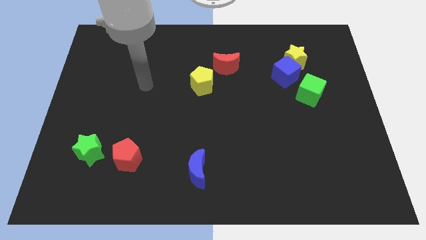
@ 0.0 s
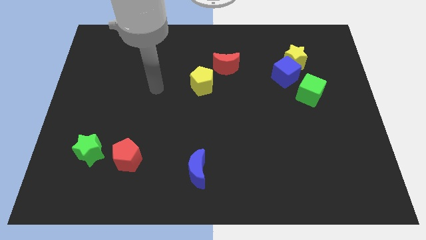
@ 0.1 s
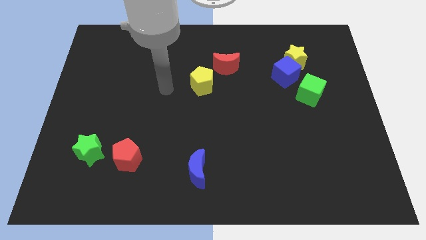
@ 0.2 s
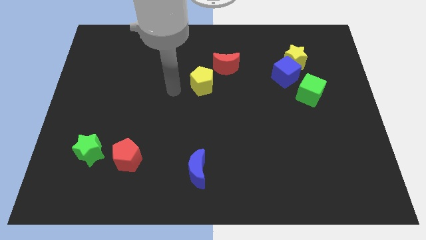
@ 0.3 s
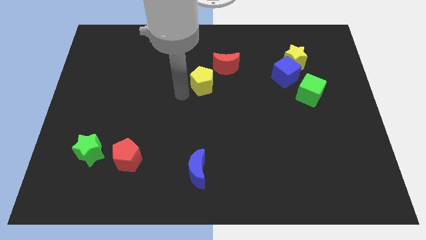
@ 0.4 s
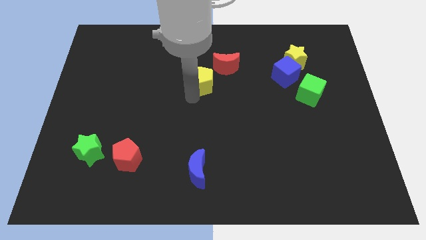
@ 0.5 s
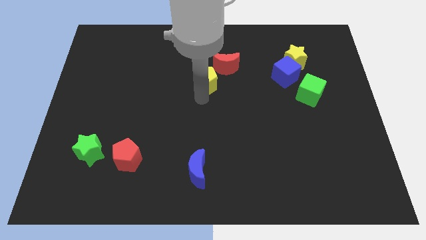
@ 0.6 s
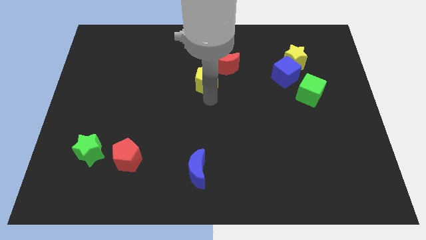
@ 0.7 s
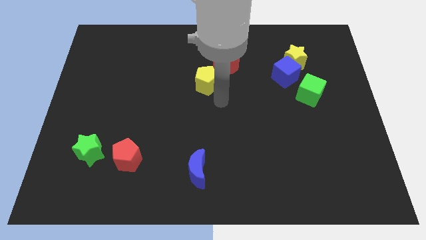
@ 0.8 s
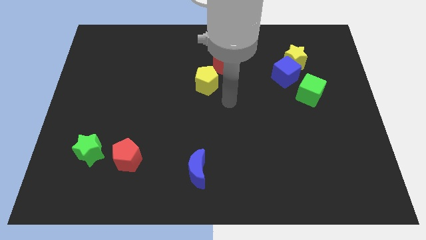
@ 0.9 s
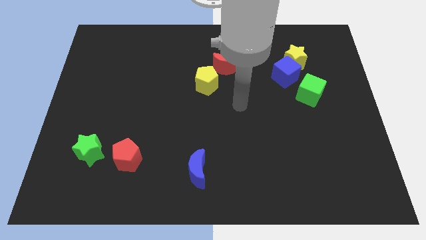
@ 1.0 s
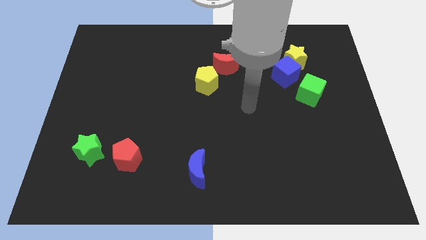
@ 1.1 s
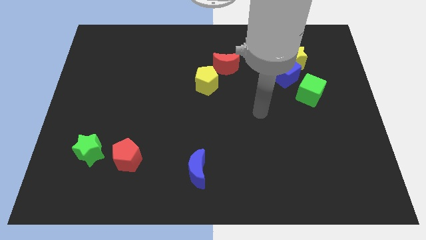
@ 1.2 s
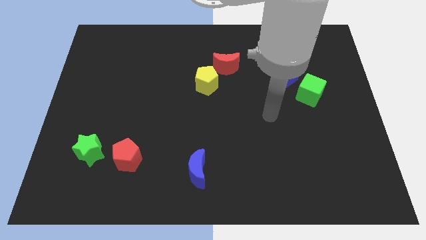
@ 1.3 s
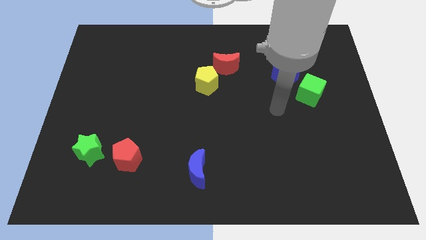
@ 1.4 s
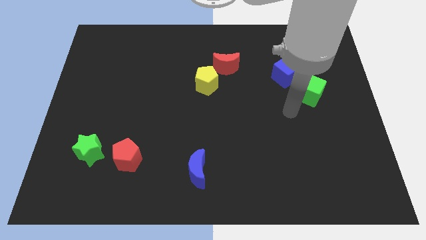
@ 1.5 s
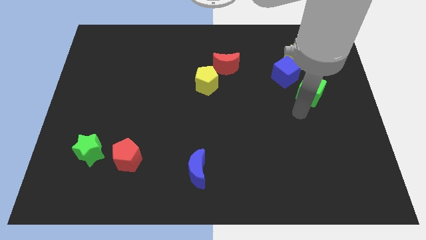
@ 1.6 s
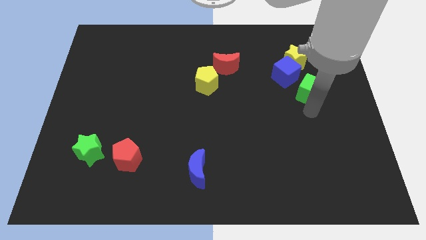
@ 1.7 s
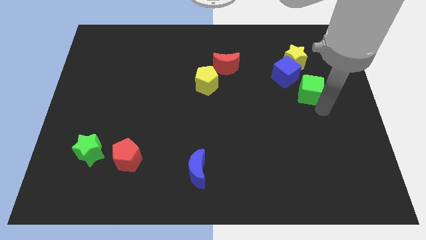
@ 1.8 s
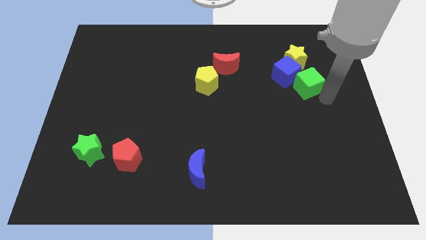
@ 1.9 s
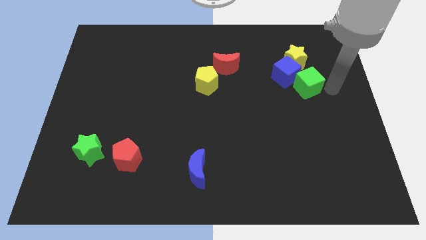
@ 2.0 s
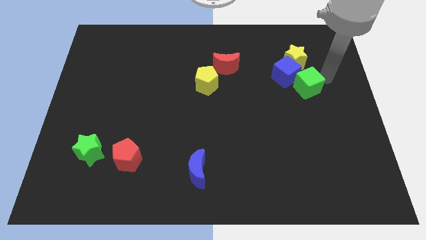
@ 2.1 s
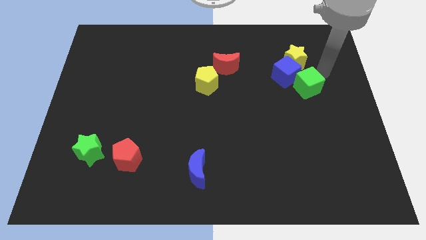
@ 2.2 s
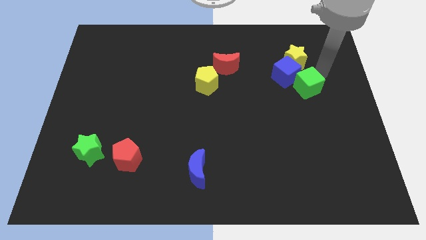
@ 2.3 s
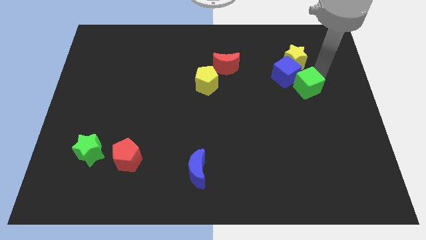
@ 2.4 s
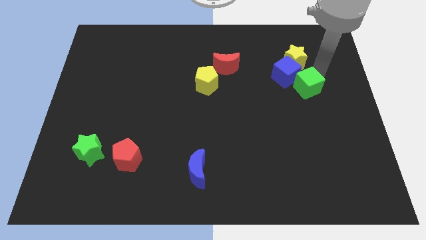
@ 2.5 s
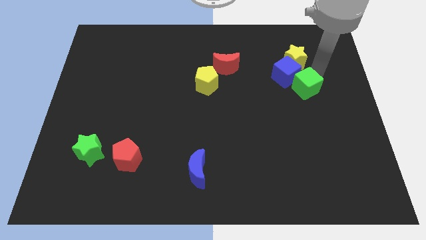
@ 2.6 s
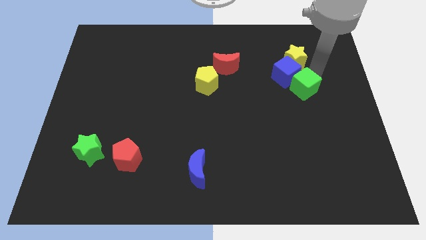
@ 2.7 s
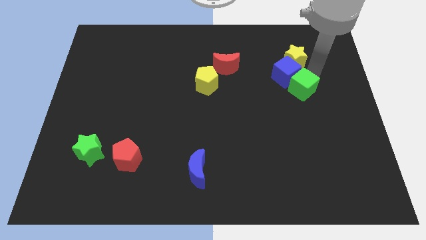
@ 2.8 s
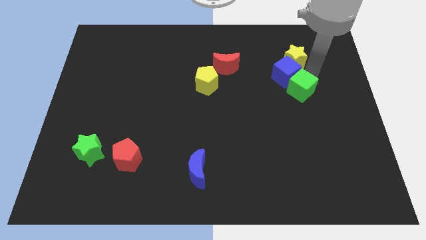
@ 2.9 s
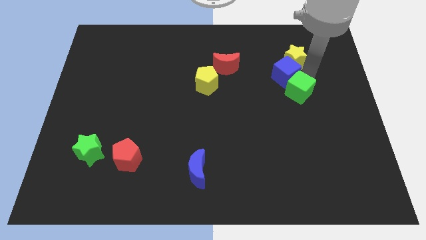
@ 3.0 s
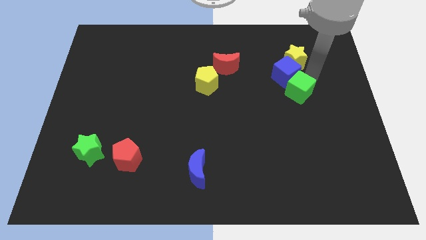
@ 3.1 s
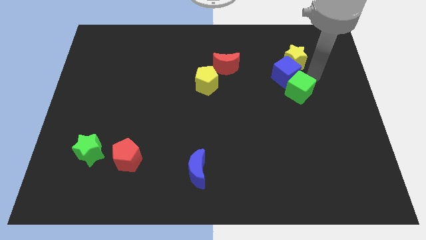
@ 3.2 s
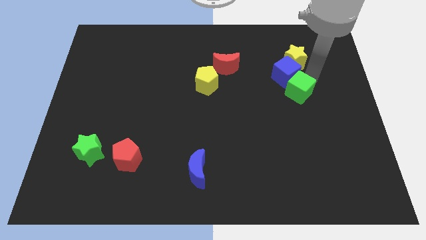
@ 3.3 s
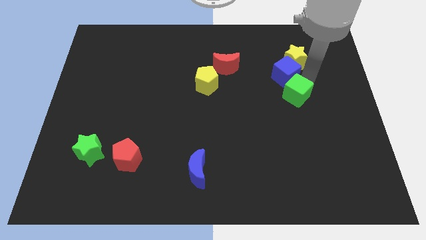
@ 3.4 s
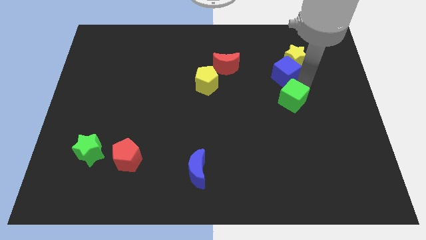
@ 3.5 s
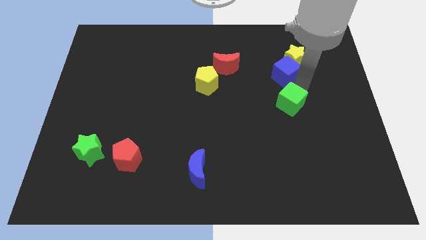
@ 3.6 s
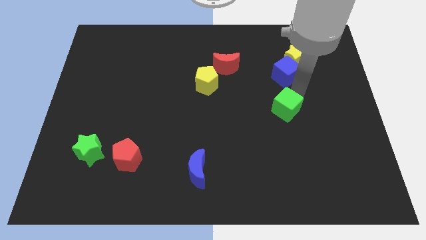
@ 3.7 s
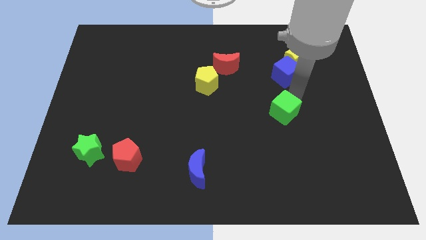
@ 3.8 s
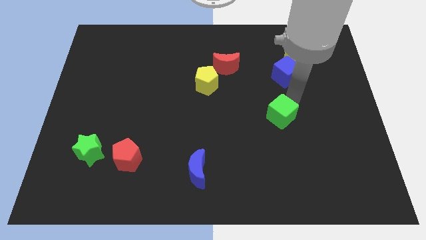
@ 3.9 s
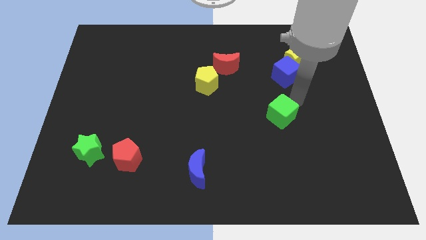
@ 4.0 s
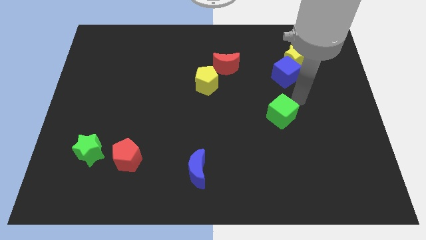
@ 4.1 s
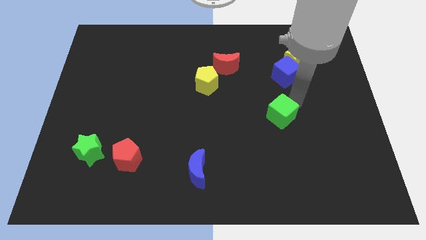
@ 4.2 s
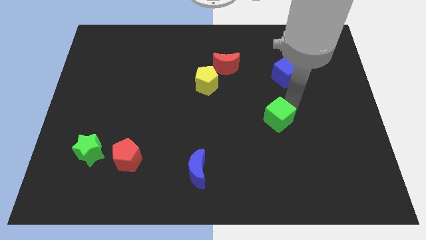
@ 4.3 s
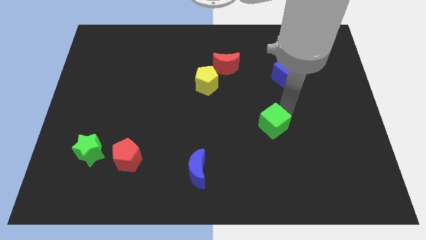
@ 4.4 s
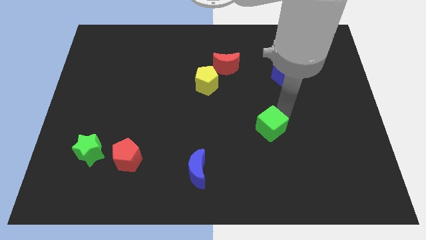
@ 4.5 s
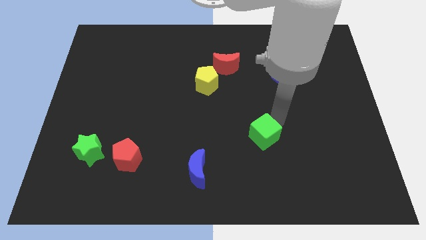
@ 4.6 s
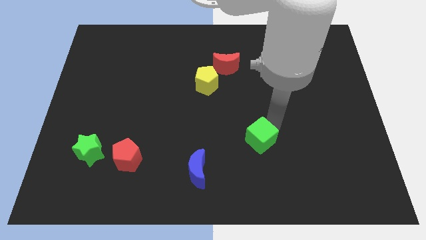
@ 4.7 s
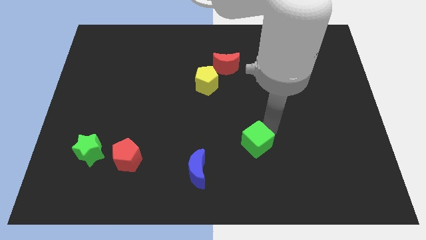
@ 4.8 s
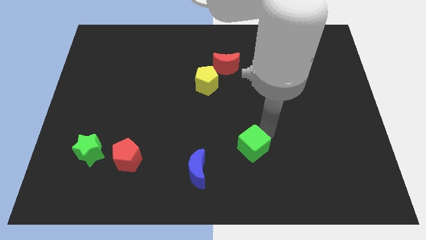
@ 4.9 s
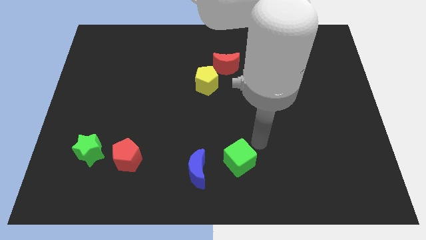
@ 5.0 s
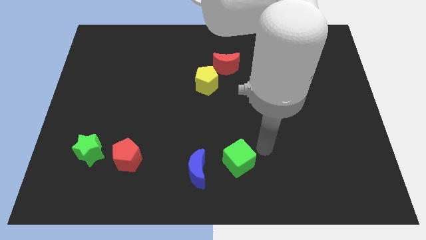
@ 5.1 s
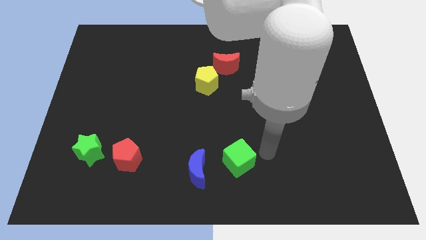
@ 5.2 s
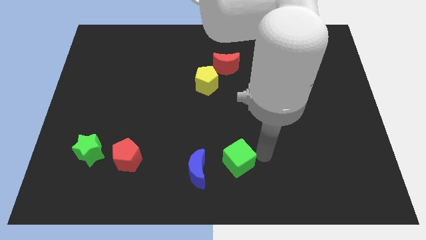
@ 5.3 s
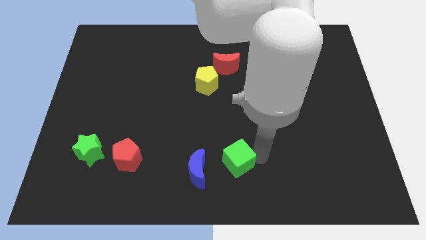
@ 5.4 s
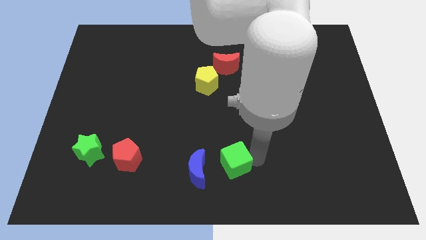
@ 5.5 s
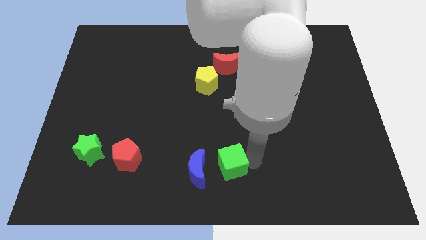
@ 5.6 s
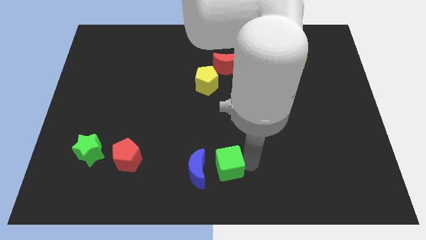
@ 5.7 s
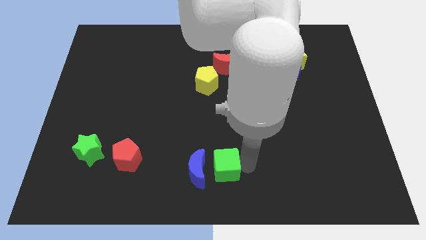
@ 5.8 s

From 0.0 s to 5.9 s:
put the green cube next to the blue moon

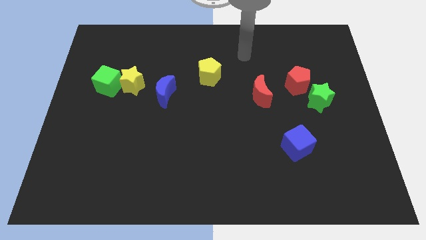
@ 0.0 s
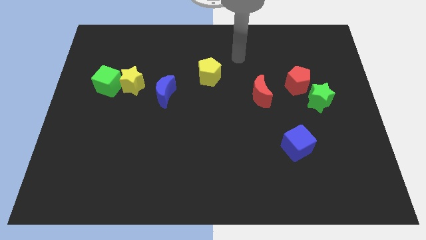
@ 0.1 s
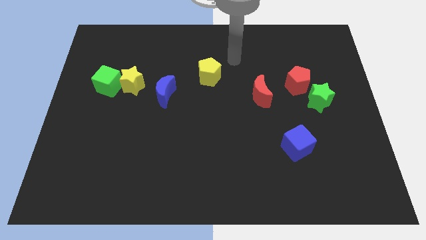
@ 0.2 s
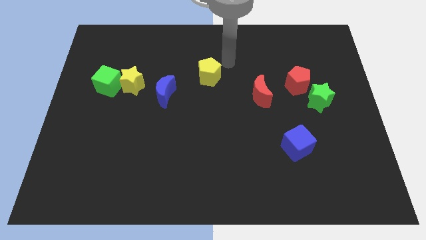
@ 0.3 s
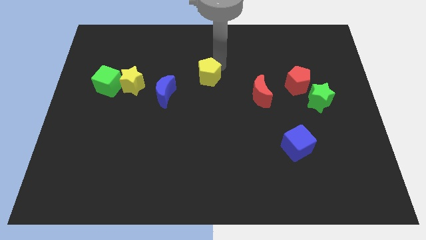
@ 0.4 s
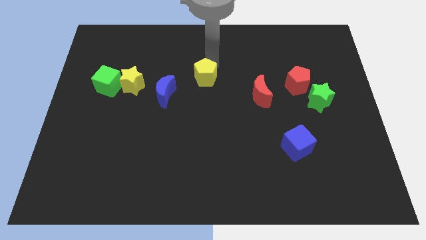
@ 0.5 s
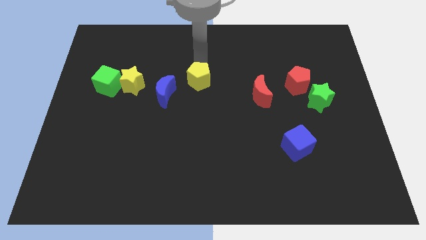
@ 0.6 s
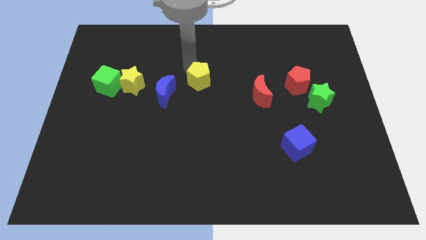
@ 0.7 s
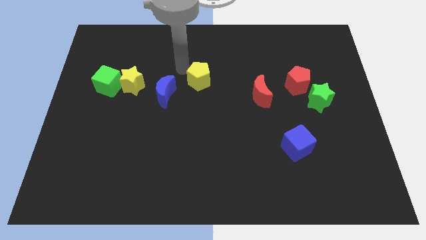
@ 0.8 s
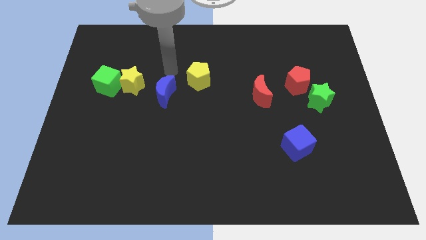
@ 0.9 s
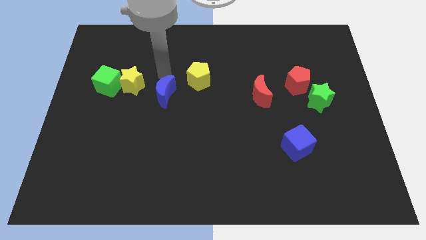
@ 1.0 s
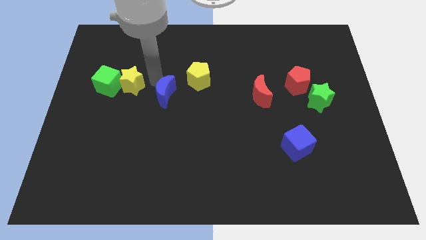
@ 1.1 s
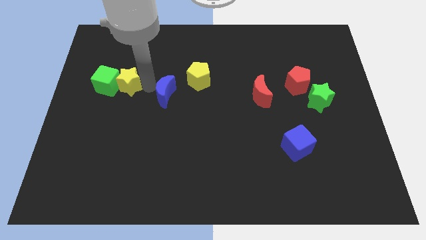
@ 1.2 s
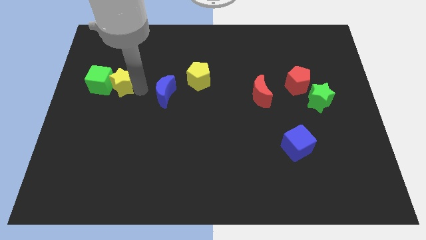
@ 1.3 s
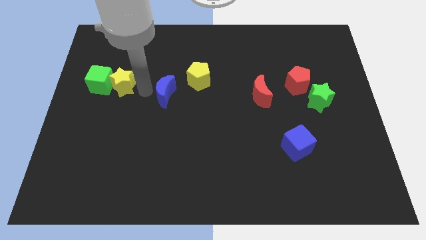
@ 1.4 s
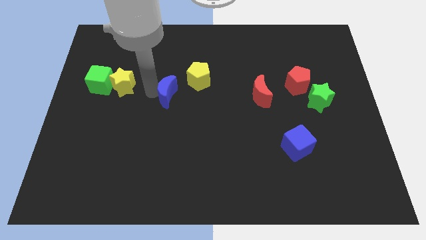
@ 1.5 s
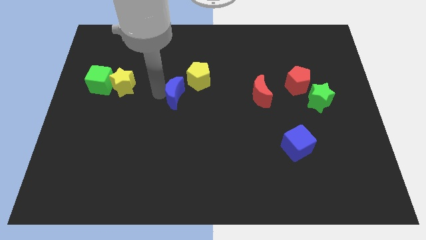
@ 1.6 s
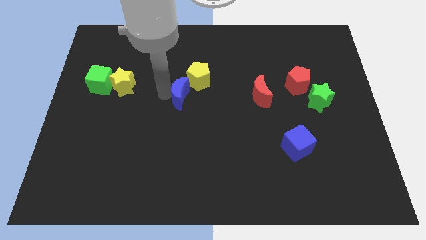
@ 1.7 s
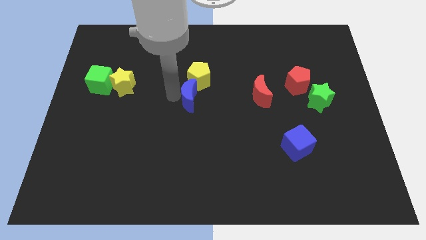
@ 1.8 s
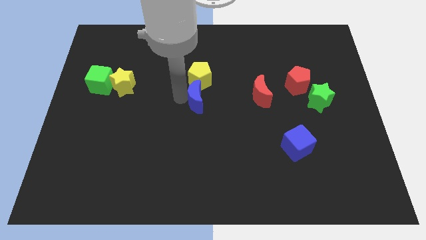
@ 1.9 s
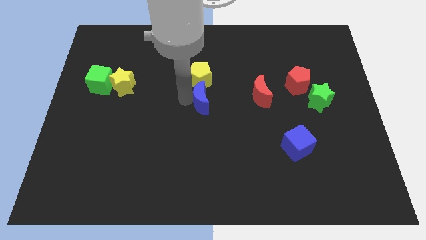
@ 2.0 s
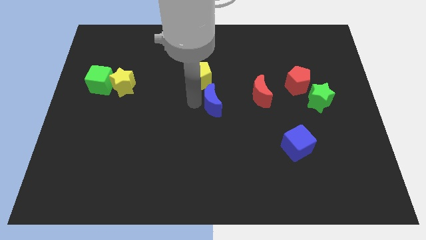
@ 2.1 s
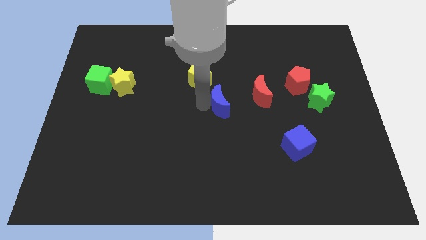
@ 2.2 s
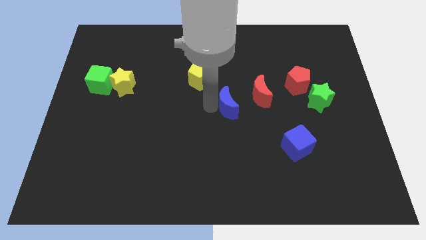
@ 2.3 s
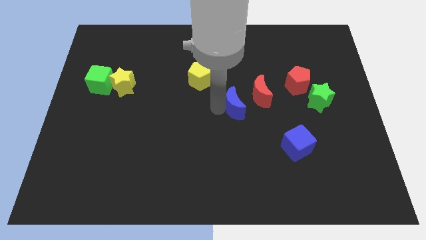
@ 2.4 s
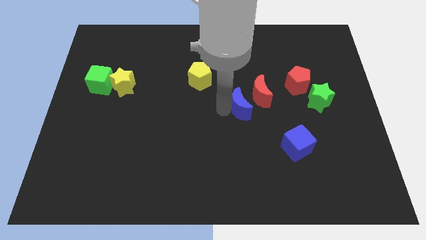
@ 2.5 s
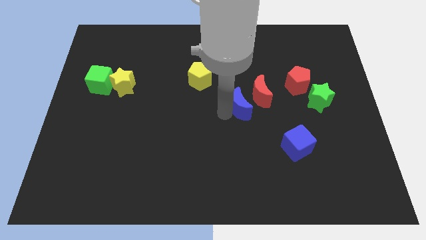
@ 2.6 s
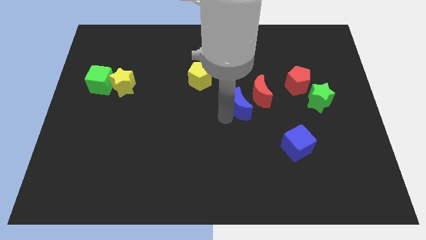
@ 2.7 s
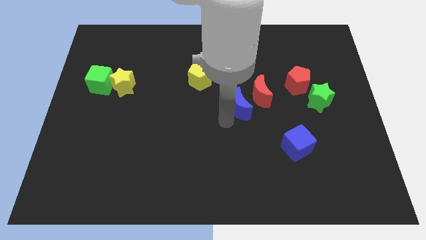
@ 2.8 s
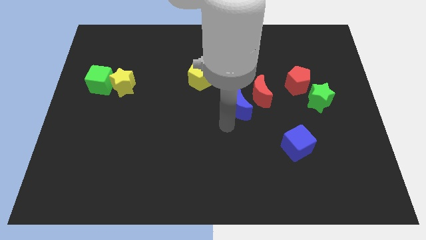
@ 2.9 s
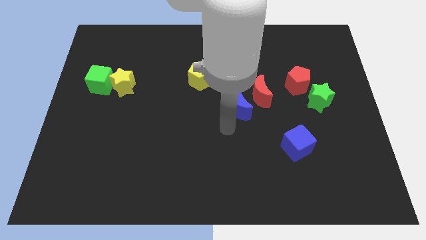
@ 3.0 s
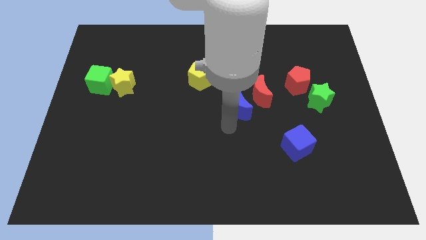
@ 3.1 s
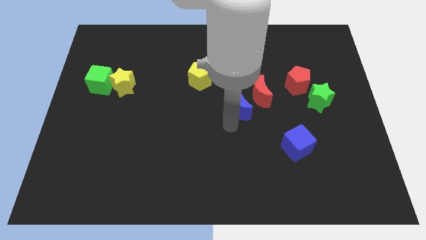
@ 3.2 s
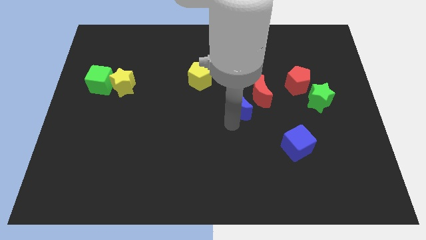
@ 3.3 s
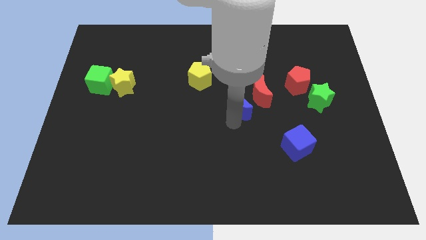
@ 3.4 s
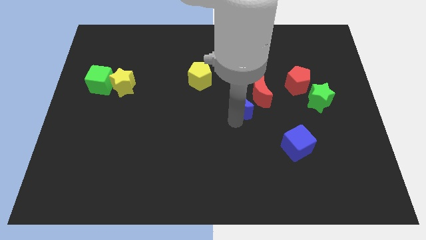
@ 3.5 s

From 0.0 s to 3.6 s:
put the blue moon next to the red moon
